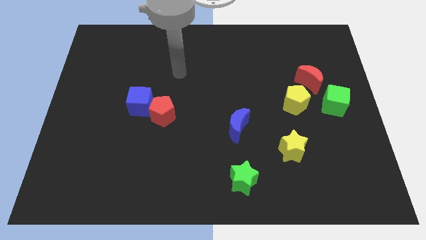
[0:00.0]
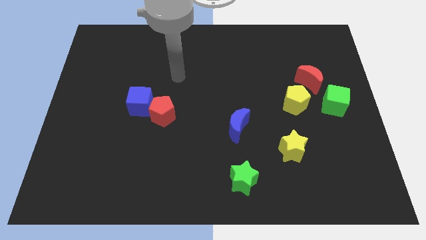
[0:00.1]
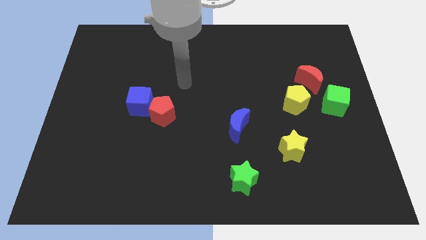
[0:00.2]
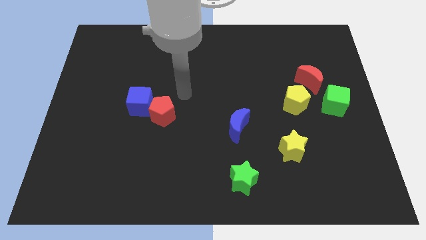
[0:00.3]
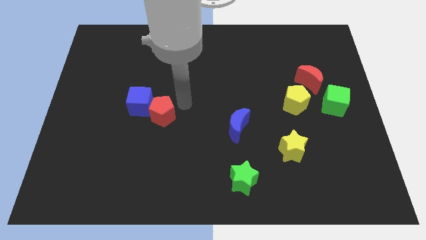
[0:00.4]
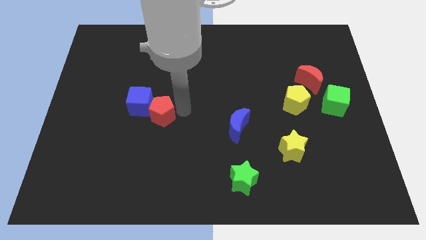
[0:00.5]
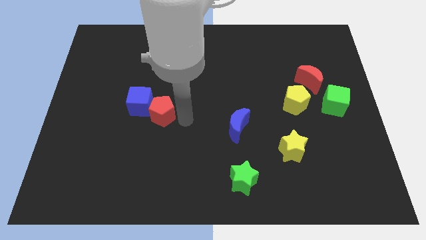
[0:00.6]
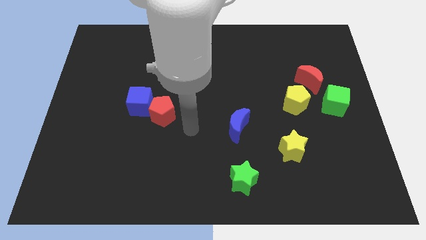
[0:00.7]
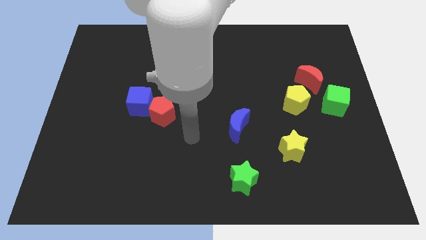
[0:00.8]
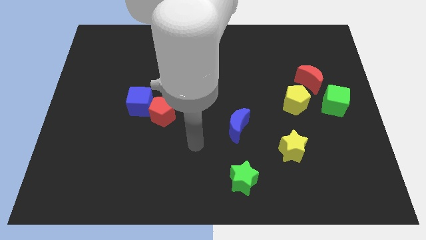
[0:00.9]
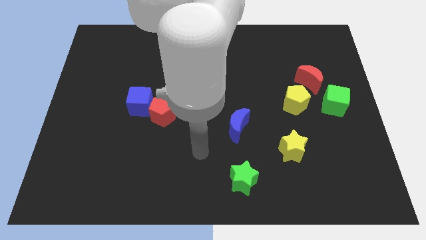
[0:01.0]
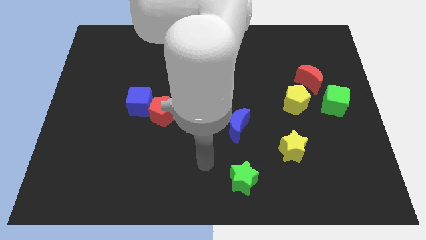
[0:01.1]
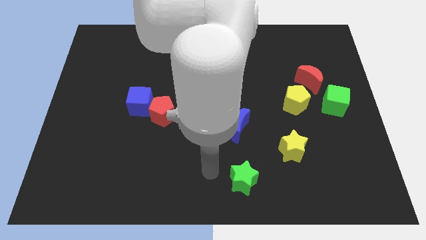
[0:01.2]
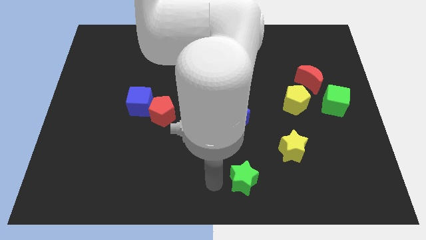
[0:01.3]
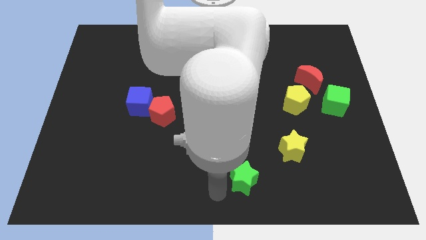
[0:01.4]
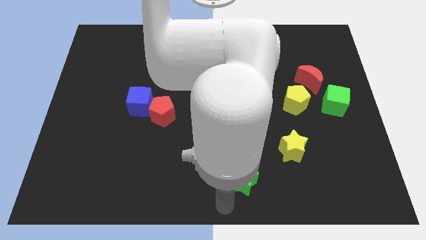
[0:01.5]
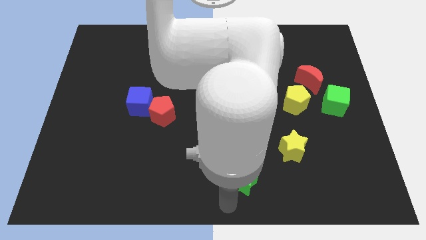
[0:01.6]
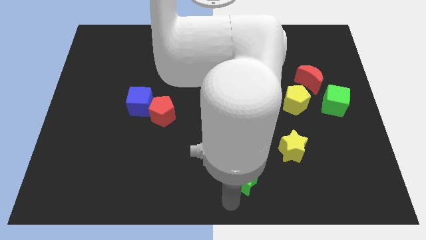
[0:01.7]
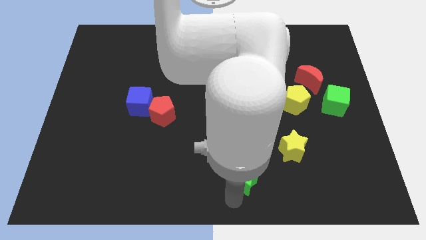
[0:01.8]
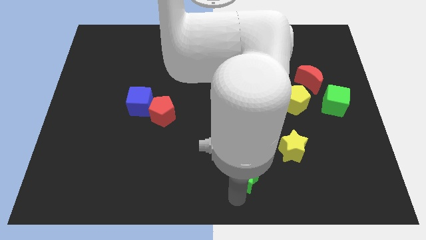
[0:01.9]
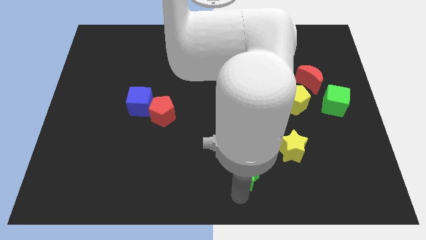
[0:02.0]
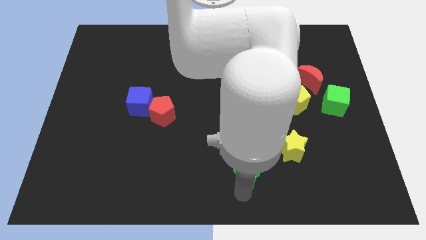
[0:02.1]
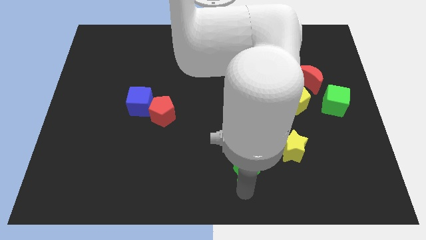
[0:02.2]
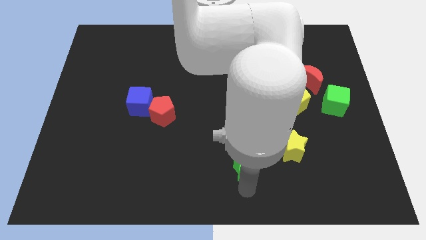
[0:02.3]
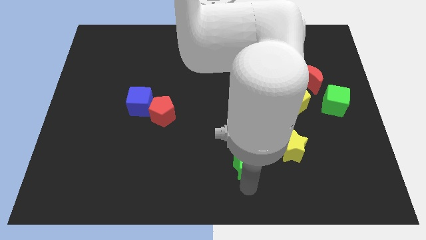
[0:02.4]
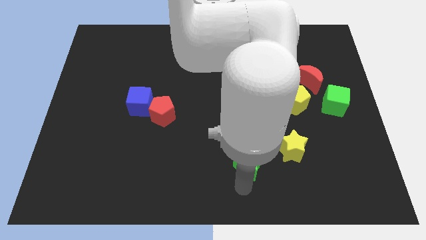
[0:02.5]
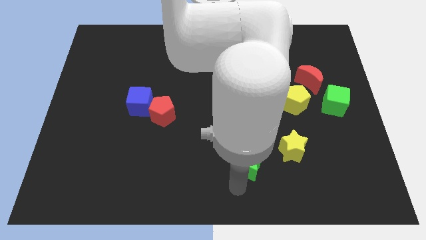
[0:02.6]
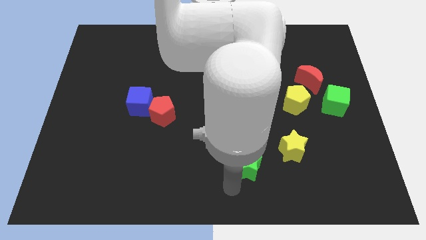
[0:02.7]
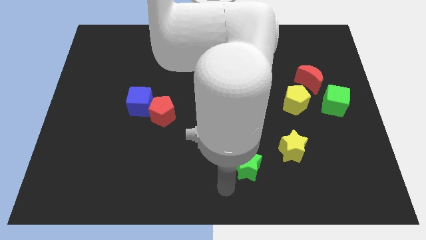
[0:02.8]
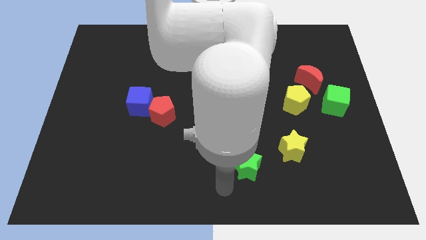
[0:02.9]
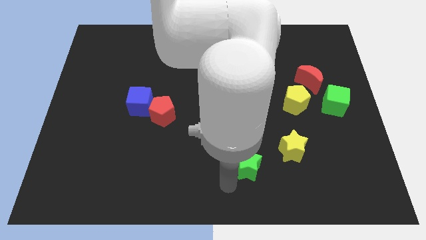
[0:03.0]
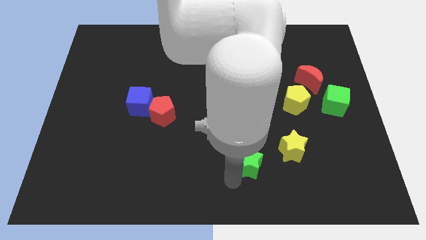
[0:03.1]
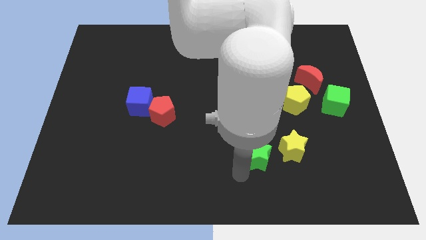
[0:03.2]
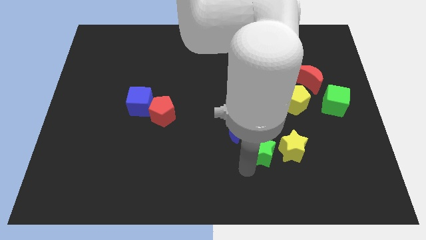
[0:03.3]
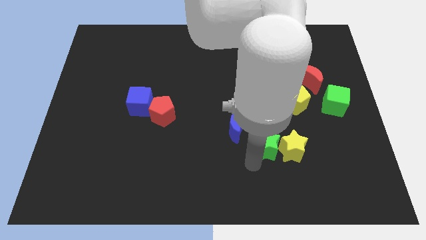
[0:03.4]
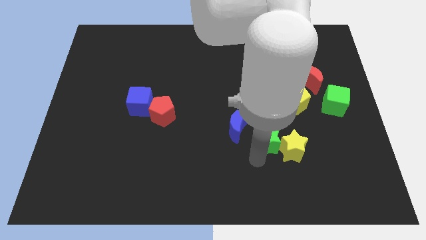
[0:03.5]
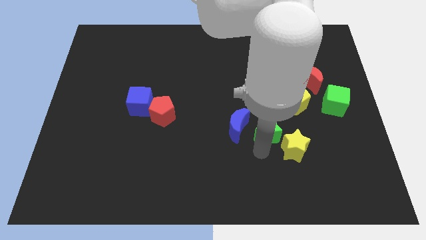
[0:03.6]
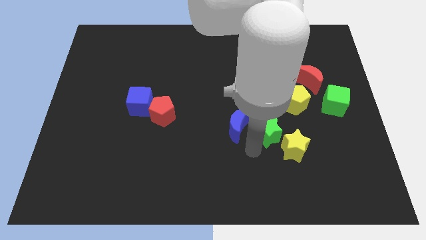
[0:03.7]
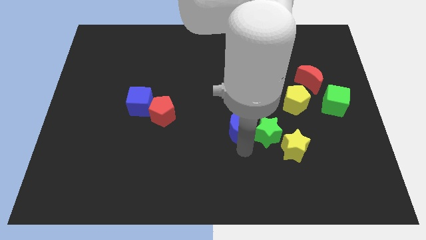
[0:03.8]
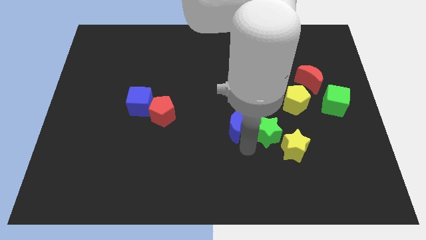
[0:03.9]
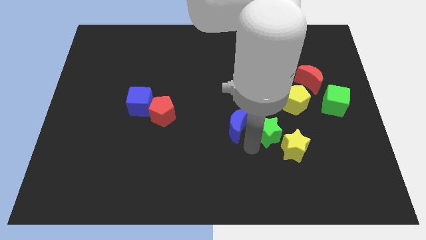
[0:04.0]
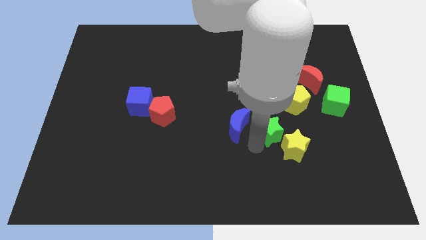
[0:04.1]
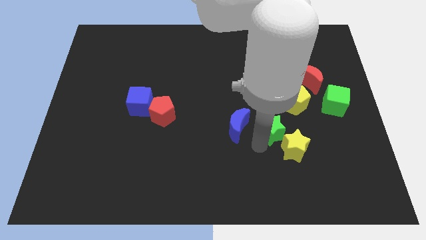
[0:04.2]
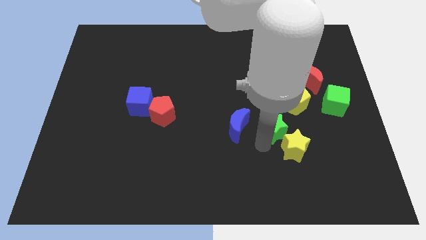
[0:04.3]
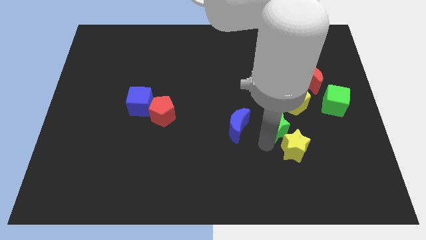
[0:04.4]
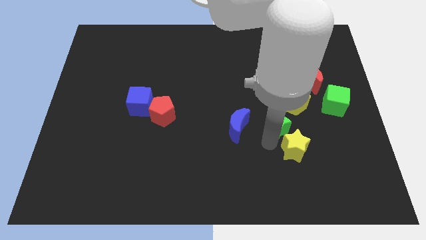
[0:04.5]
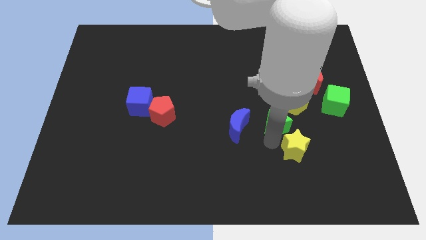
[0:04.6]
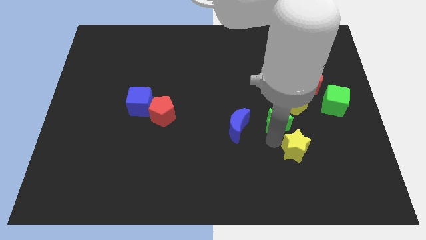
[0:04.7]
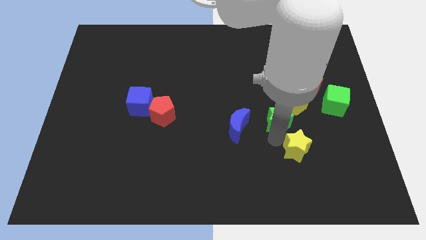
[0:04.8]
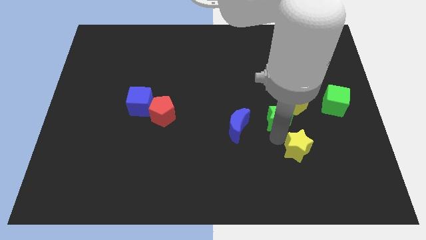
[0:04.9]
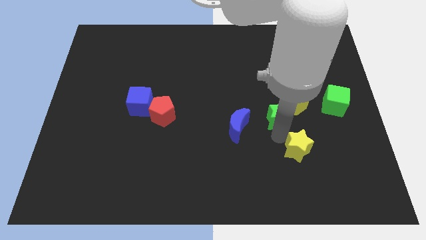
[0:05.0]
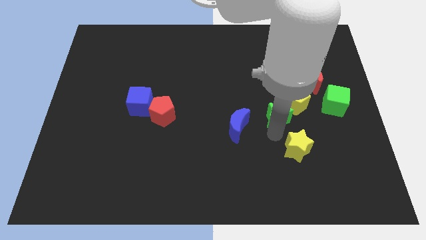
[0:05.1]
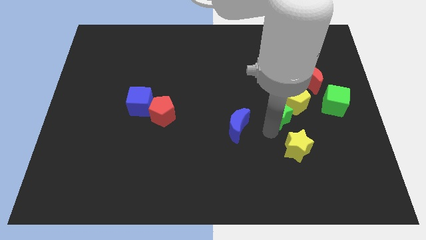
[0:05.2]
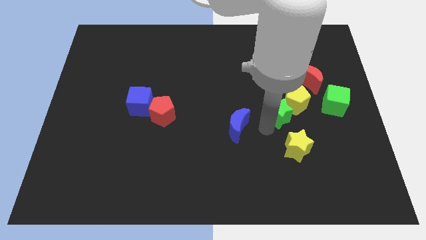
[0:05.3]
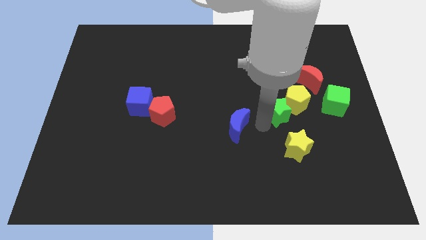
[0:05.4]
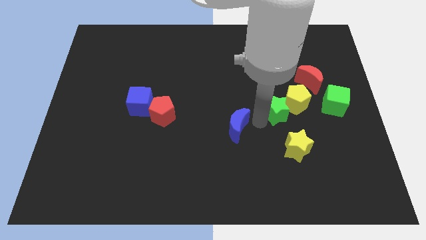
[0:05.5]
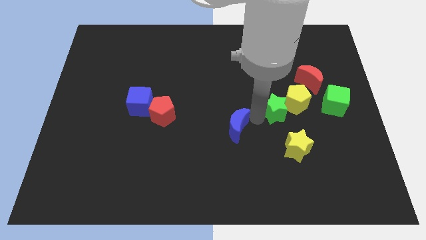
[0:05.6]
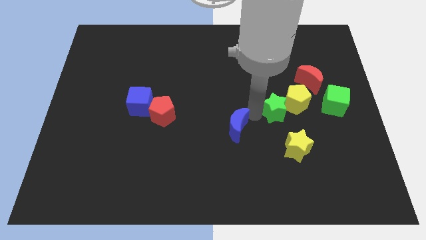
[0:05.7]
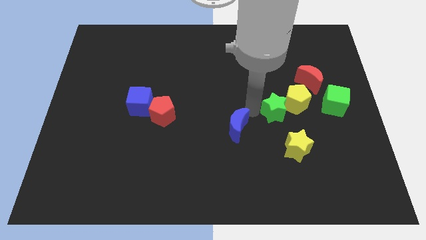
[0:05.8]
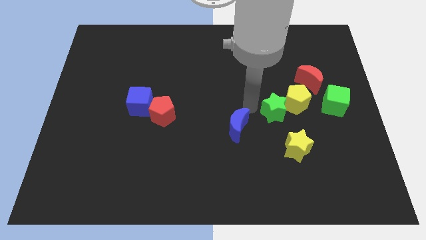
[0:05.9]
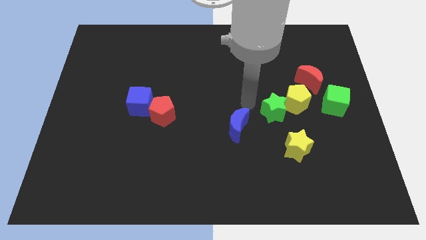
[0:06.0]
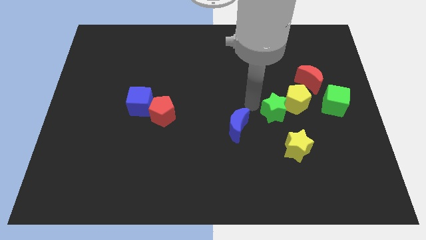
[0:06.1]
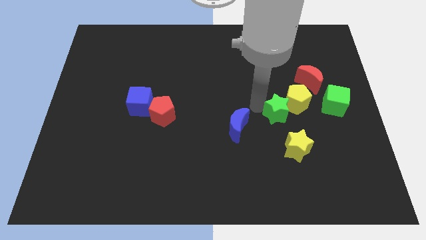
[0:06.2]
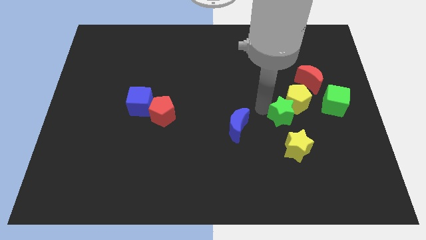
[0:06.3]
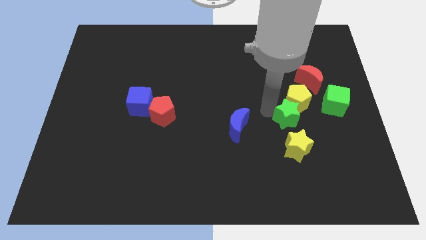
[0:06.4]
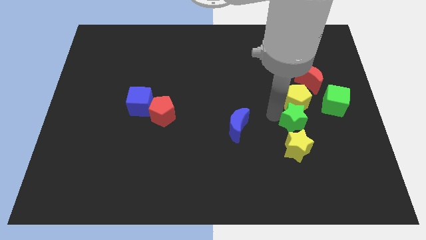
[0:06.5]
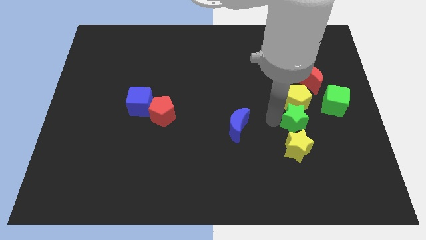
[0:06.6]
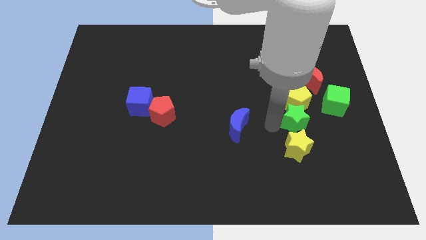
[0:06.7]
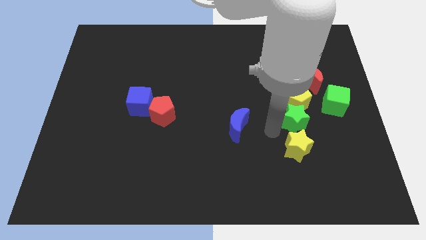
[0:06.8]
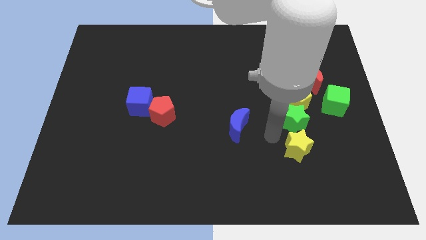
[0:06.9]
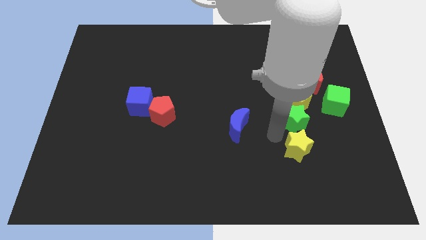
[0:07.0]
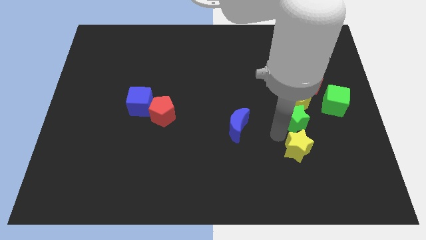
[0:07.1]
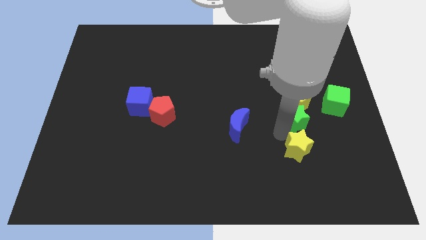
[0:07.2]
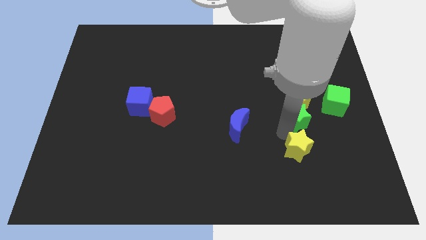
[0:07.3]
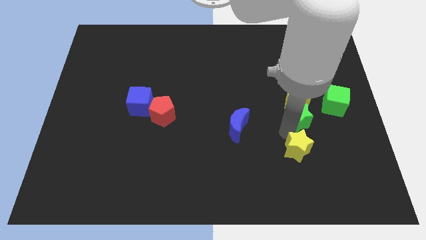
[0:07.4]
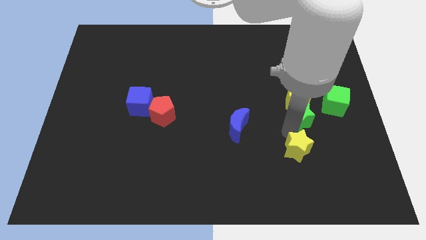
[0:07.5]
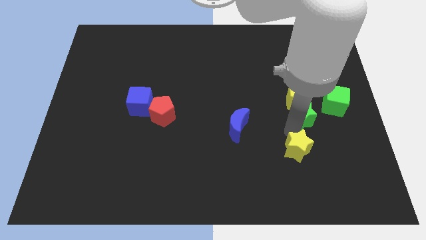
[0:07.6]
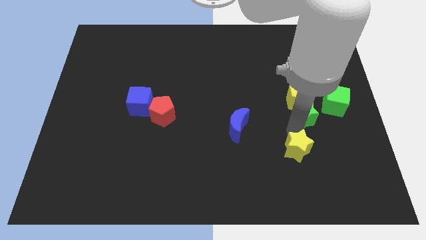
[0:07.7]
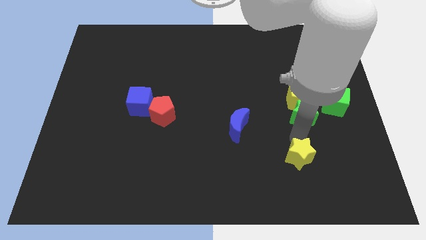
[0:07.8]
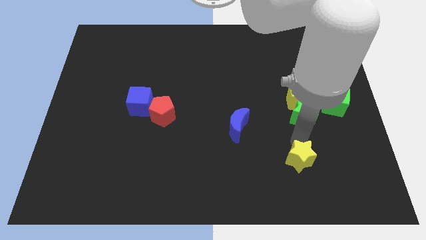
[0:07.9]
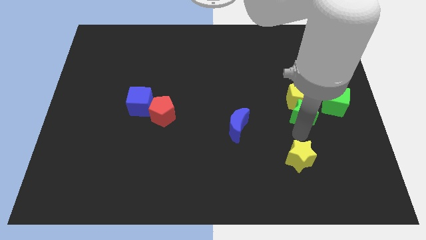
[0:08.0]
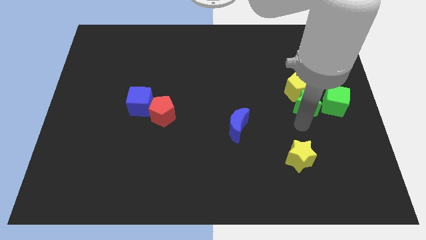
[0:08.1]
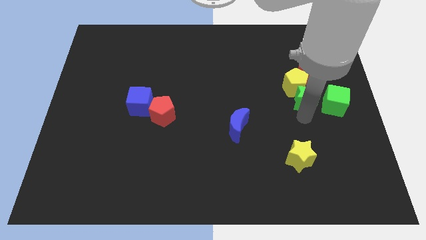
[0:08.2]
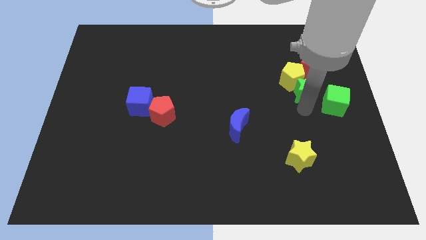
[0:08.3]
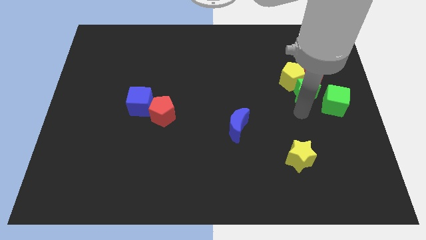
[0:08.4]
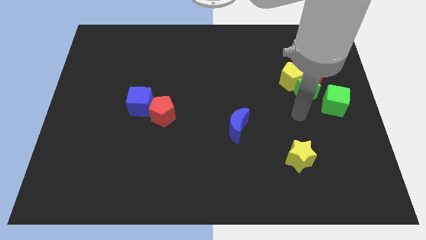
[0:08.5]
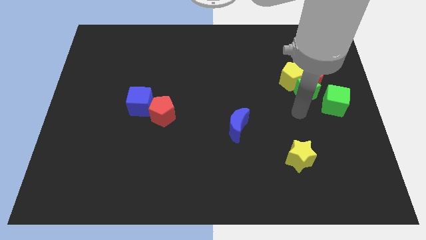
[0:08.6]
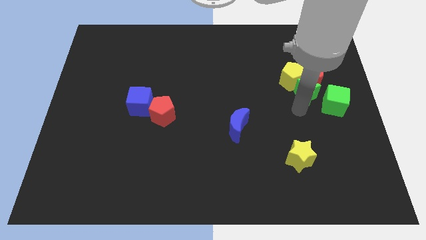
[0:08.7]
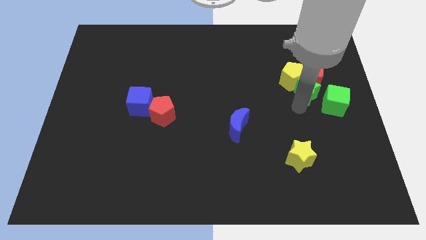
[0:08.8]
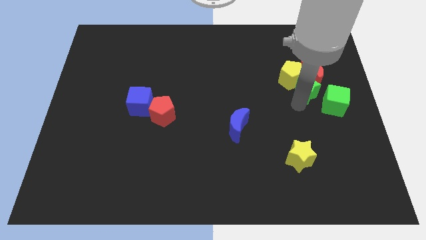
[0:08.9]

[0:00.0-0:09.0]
move the green star towards the red moon
